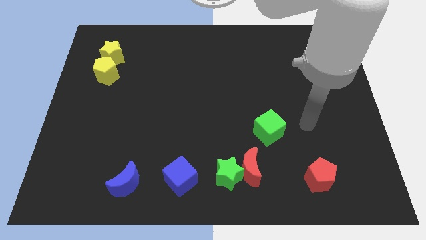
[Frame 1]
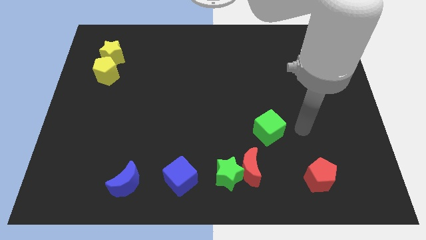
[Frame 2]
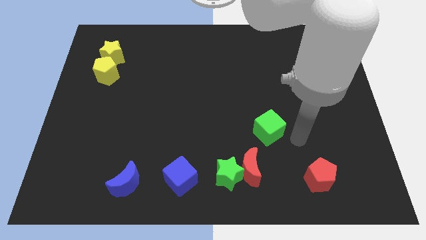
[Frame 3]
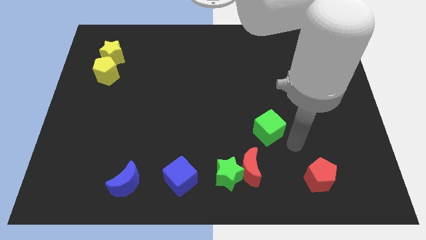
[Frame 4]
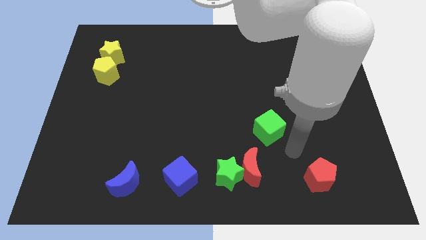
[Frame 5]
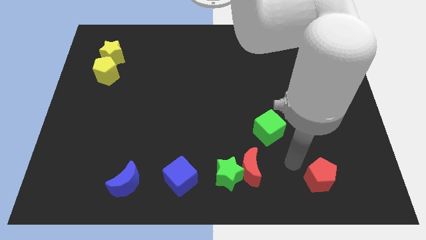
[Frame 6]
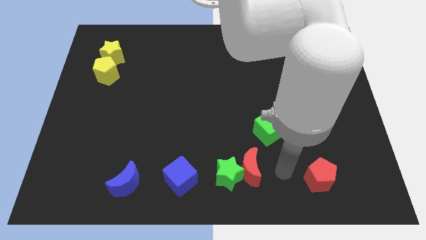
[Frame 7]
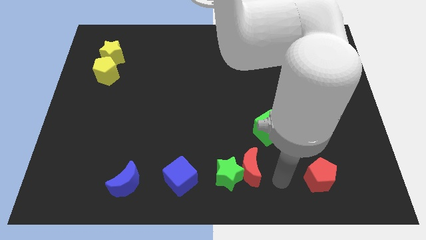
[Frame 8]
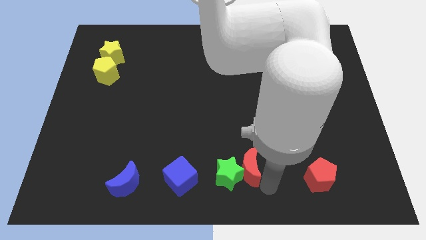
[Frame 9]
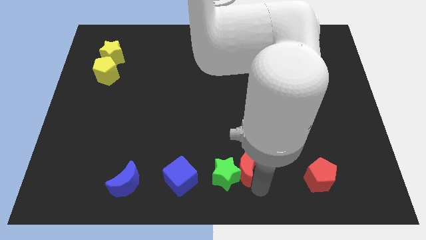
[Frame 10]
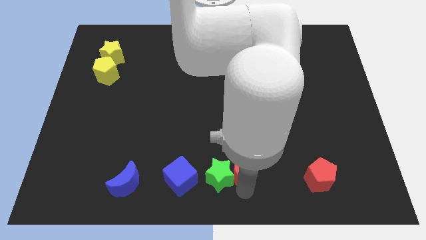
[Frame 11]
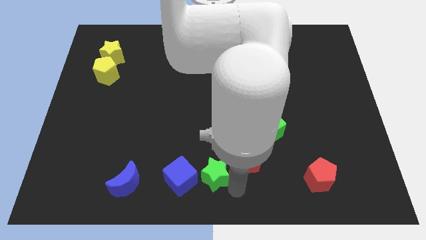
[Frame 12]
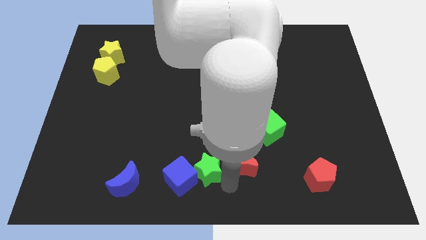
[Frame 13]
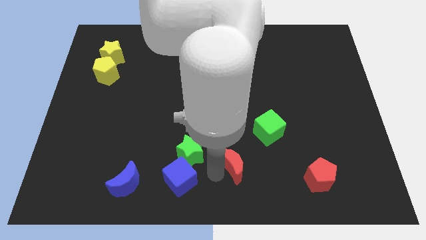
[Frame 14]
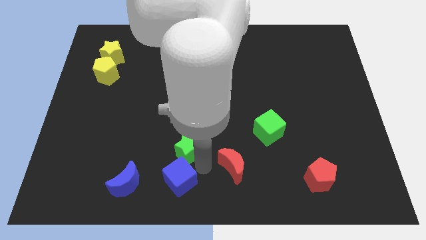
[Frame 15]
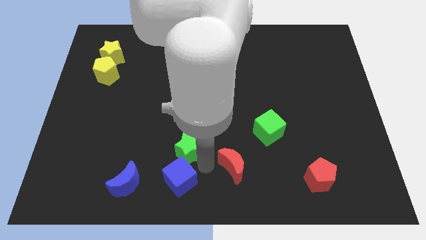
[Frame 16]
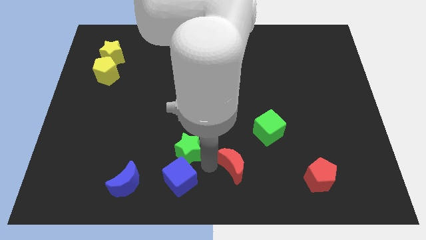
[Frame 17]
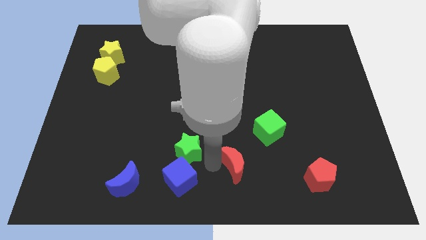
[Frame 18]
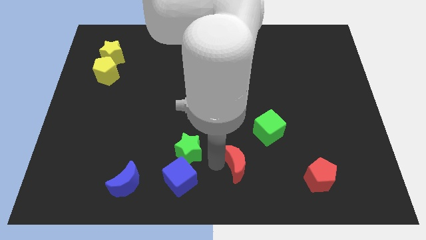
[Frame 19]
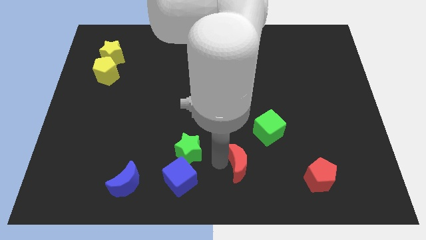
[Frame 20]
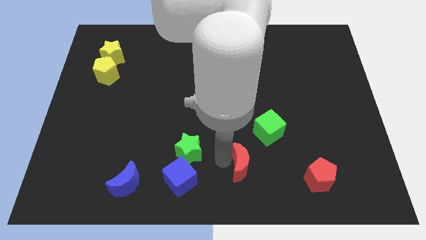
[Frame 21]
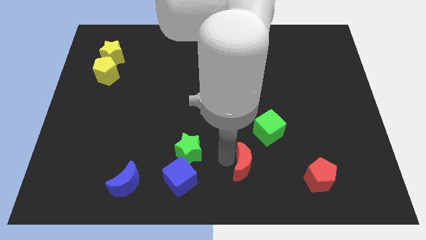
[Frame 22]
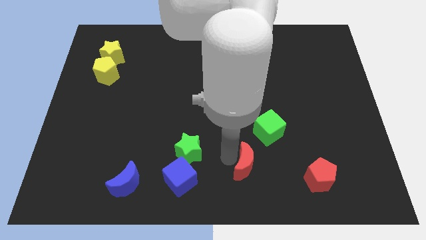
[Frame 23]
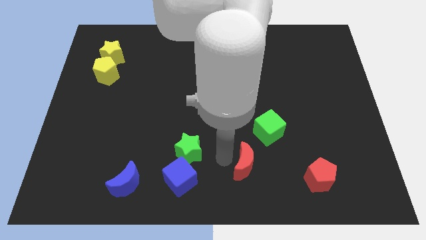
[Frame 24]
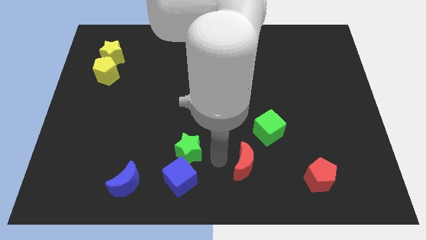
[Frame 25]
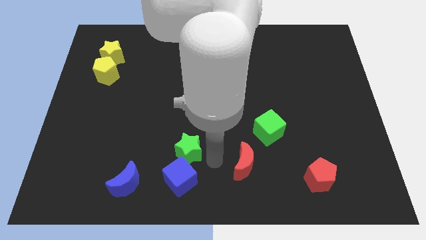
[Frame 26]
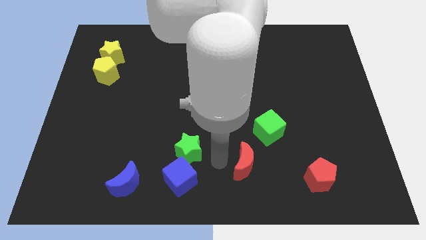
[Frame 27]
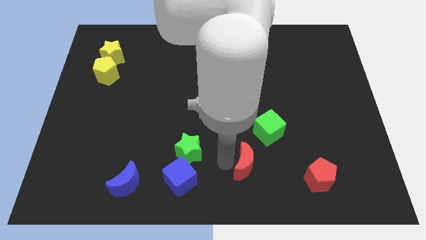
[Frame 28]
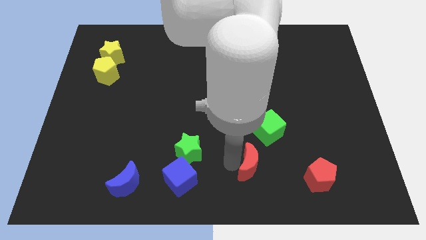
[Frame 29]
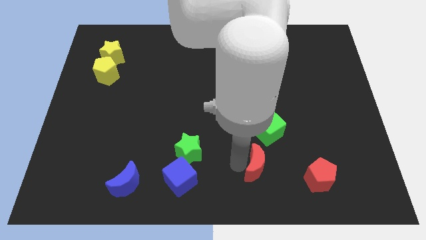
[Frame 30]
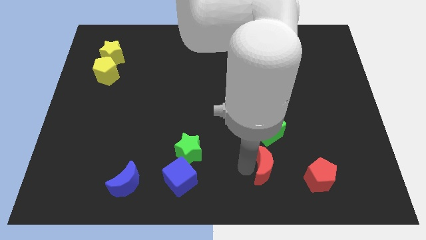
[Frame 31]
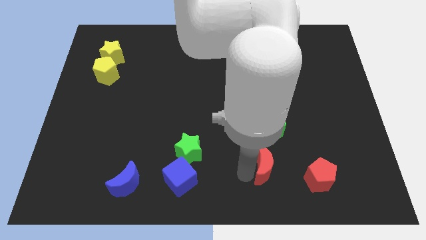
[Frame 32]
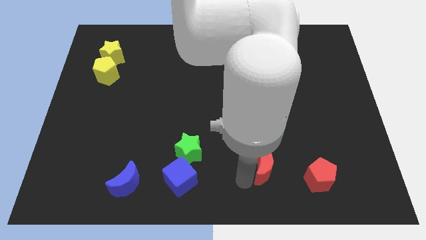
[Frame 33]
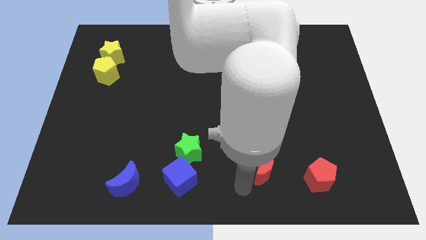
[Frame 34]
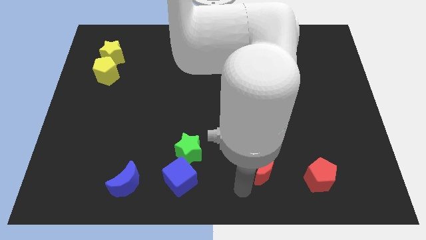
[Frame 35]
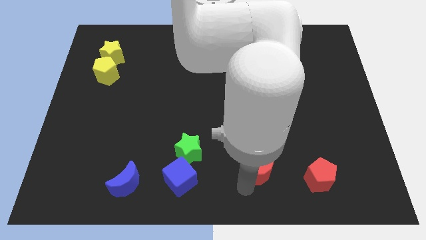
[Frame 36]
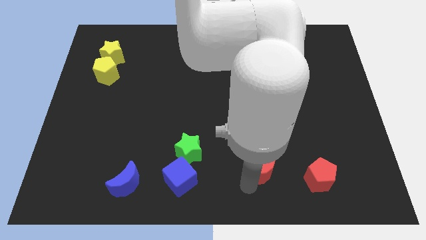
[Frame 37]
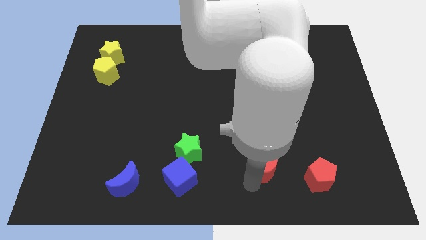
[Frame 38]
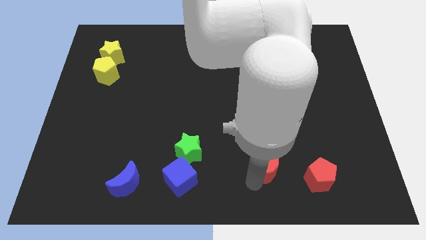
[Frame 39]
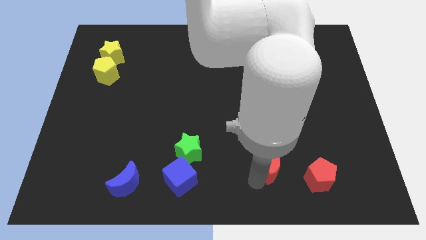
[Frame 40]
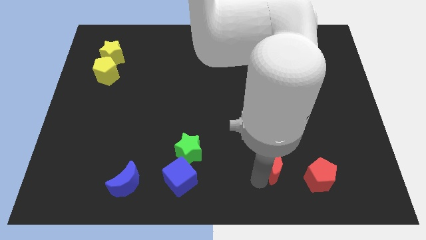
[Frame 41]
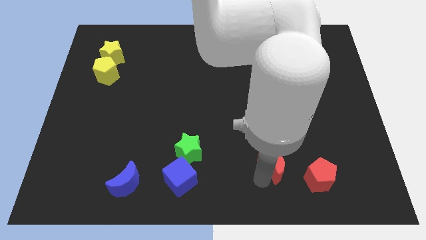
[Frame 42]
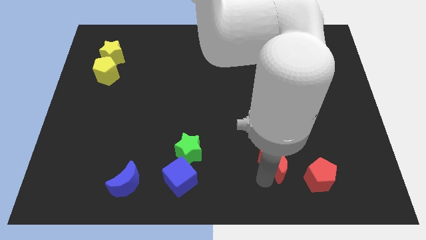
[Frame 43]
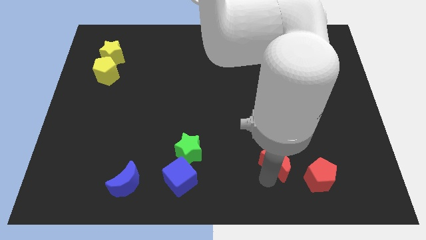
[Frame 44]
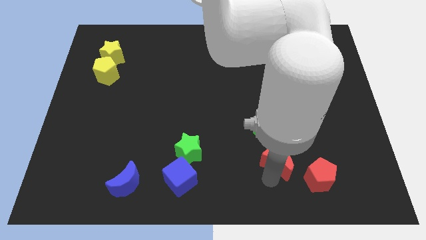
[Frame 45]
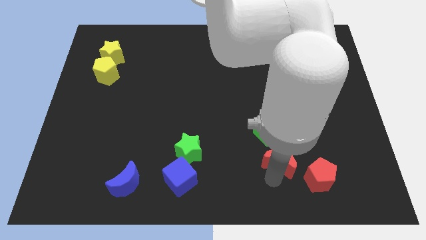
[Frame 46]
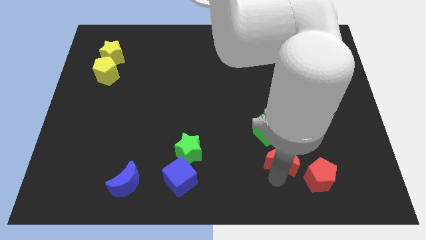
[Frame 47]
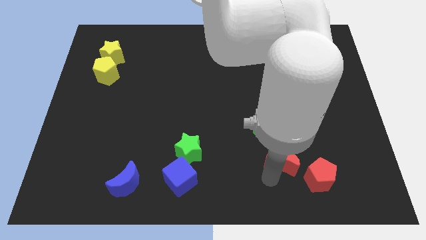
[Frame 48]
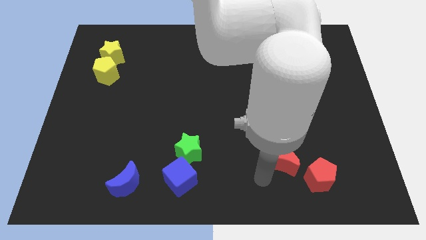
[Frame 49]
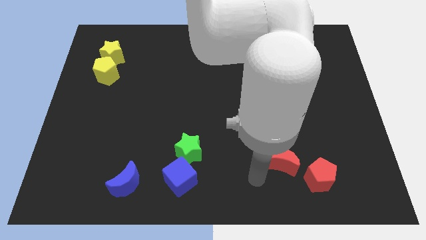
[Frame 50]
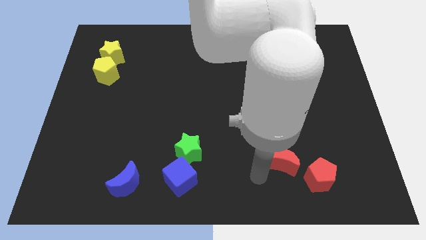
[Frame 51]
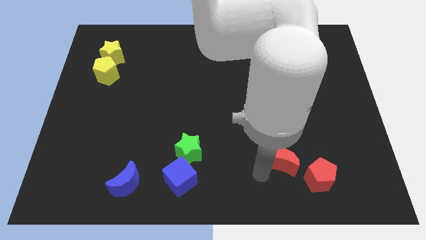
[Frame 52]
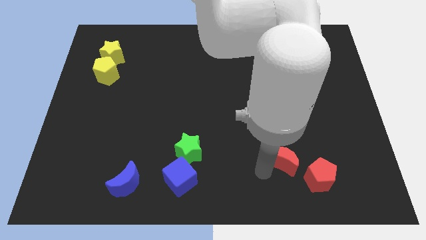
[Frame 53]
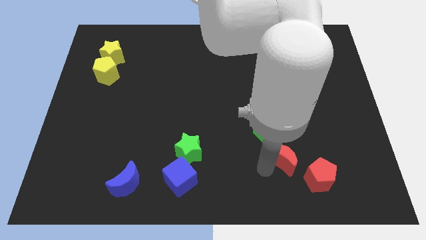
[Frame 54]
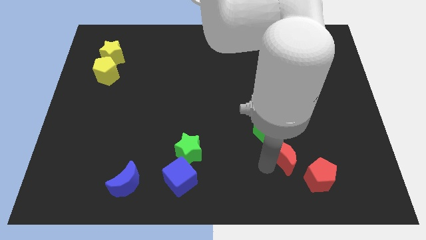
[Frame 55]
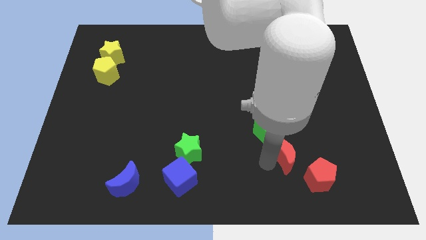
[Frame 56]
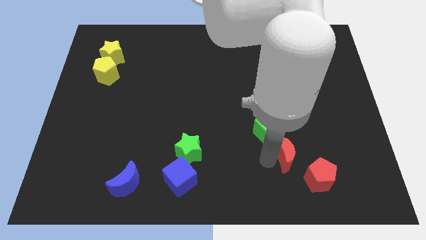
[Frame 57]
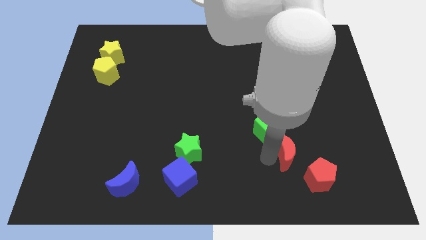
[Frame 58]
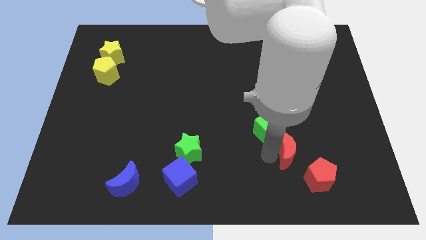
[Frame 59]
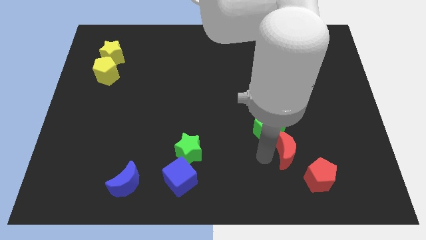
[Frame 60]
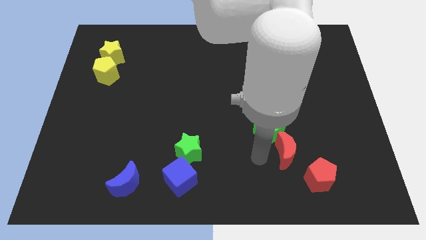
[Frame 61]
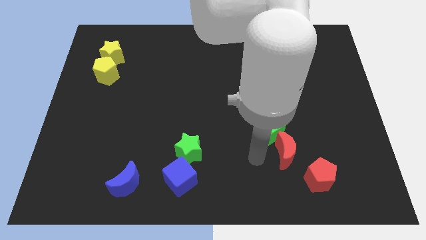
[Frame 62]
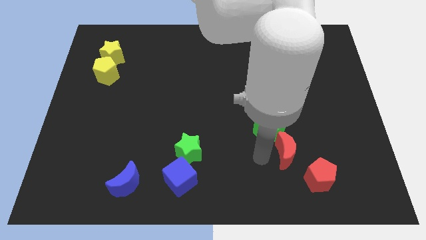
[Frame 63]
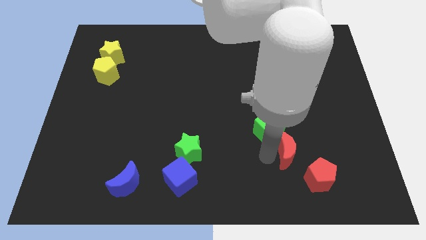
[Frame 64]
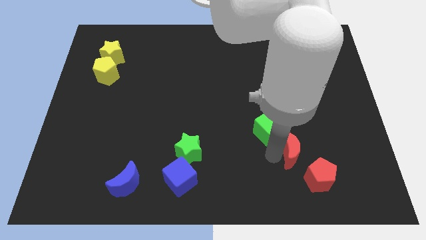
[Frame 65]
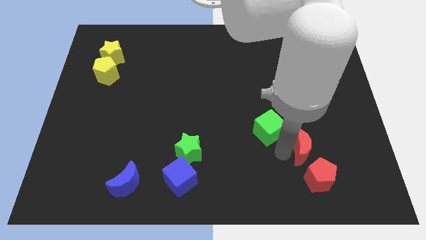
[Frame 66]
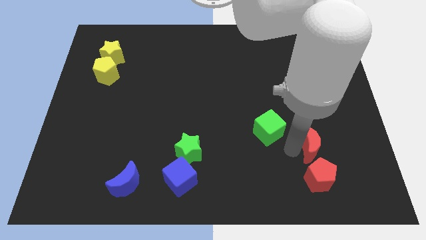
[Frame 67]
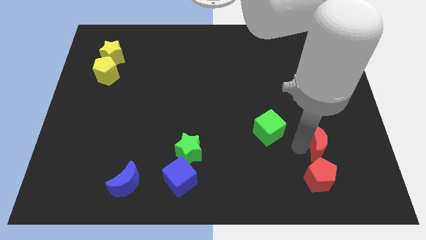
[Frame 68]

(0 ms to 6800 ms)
slide the red moon to the top right side of the red pentagon
